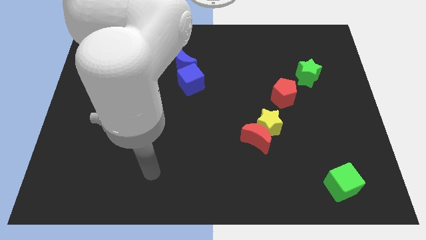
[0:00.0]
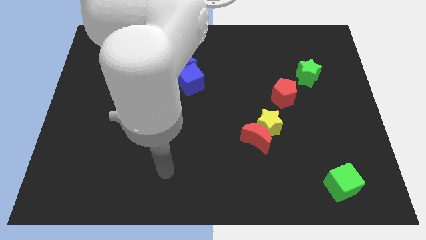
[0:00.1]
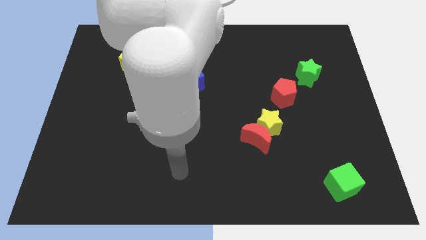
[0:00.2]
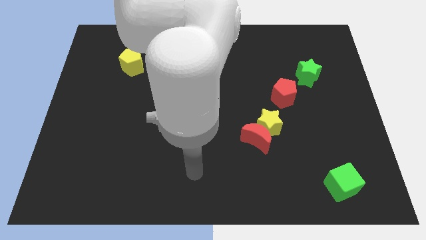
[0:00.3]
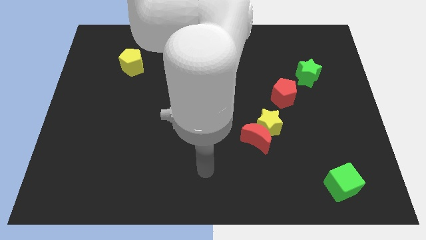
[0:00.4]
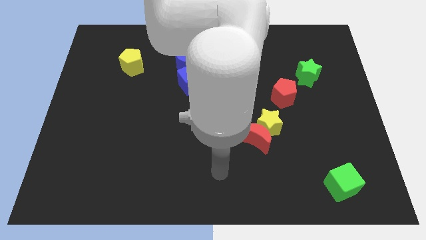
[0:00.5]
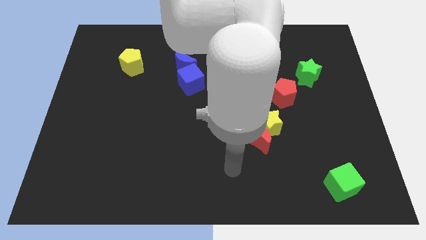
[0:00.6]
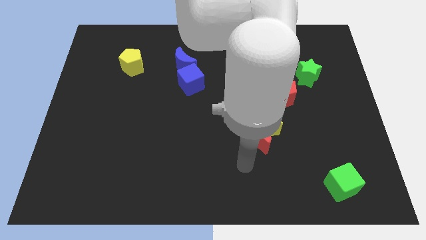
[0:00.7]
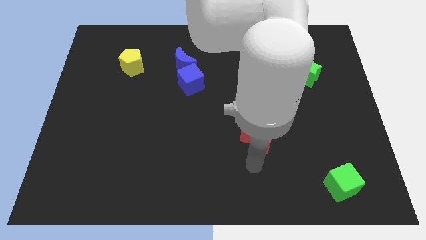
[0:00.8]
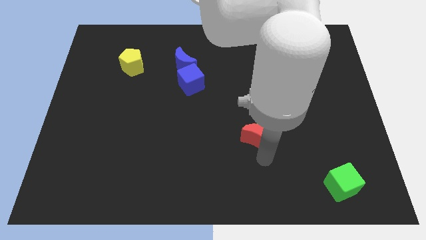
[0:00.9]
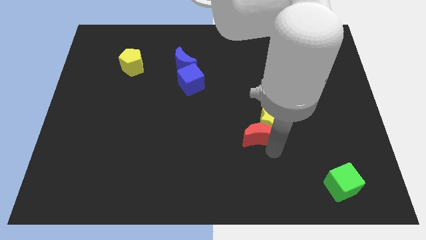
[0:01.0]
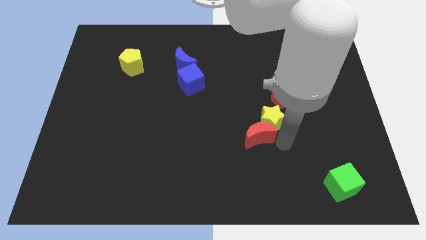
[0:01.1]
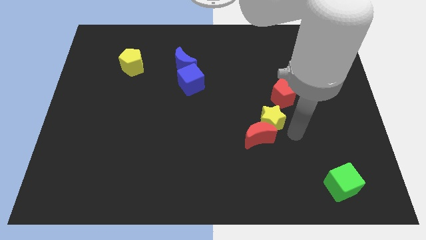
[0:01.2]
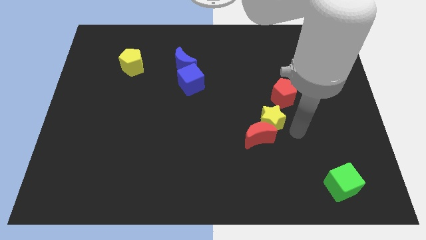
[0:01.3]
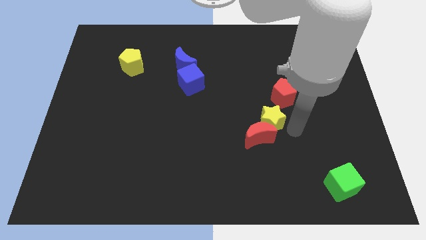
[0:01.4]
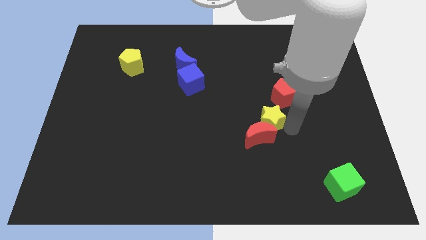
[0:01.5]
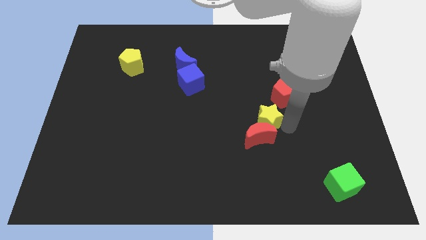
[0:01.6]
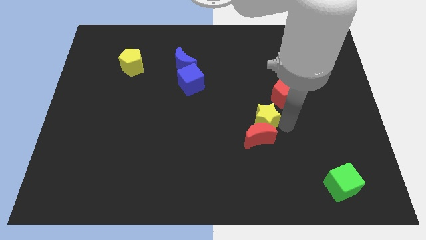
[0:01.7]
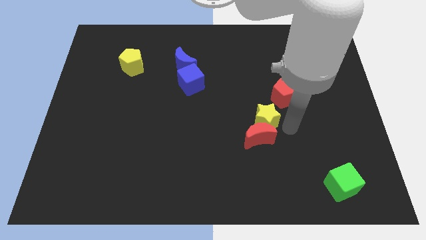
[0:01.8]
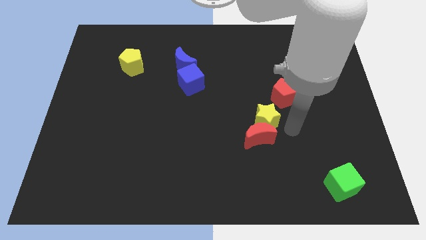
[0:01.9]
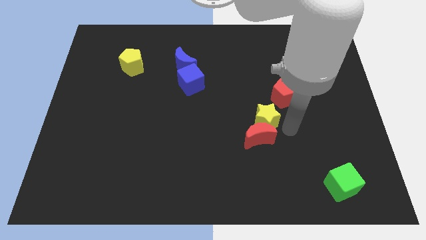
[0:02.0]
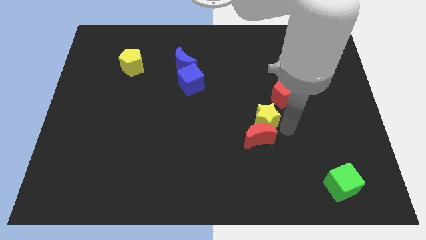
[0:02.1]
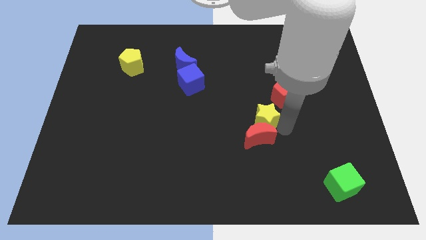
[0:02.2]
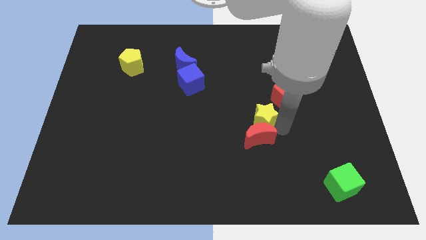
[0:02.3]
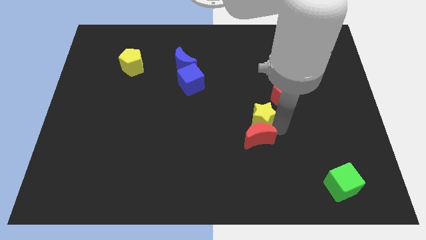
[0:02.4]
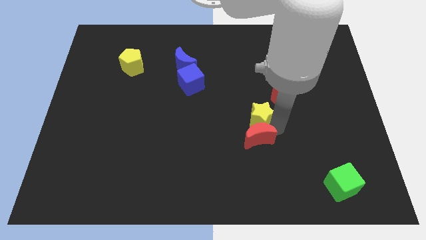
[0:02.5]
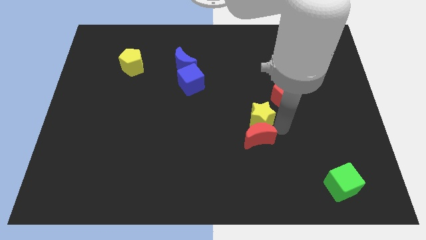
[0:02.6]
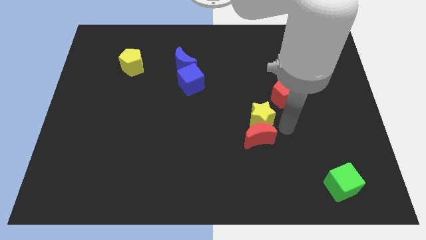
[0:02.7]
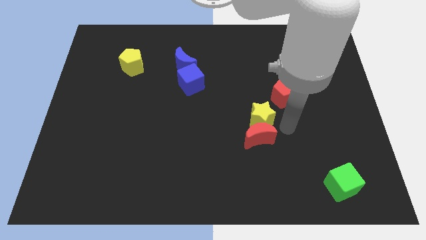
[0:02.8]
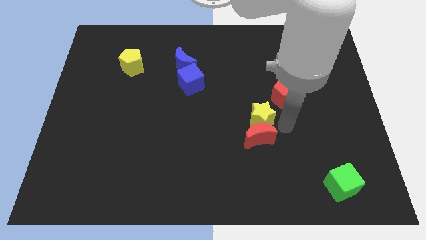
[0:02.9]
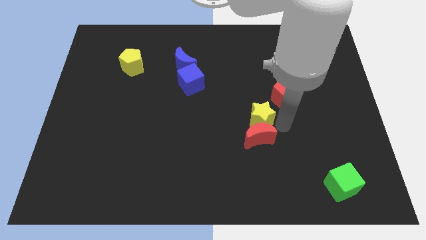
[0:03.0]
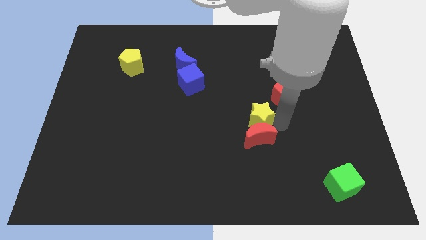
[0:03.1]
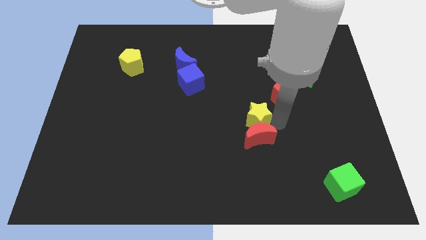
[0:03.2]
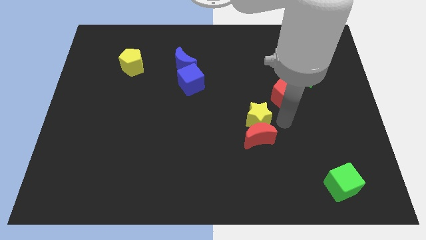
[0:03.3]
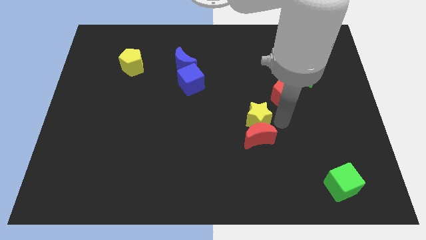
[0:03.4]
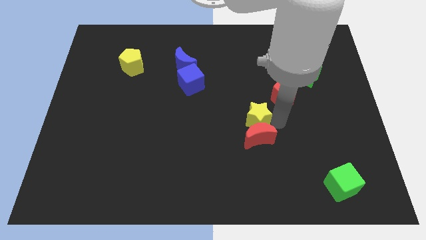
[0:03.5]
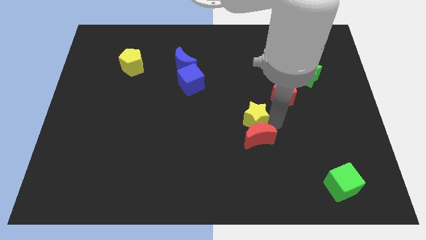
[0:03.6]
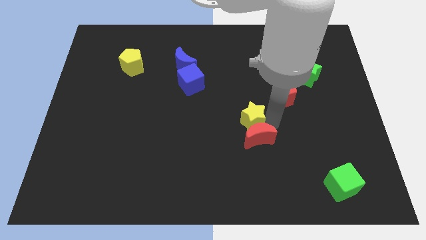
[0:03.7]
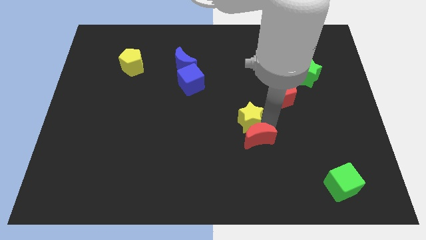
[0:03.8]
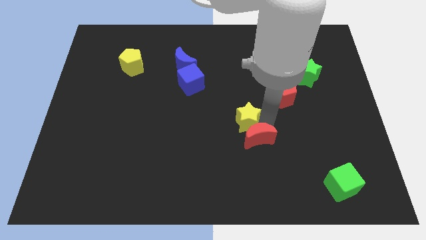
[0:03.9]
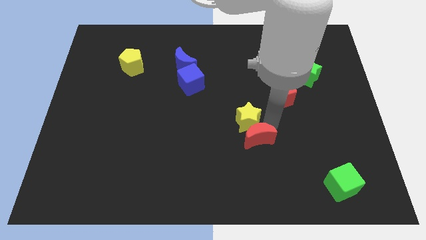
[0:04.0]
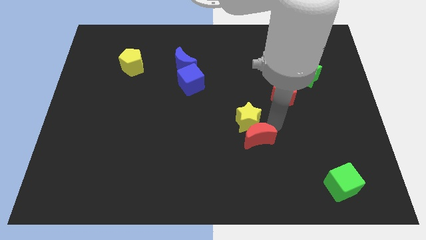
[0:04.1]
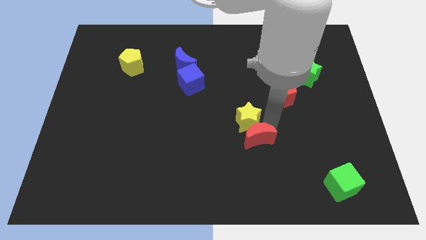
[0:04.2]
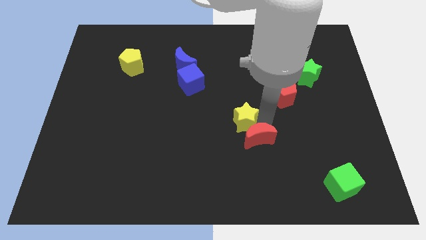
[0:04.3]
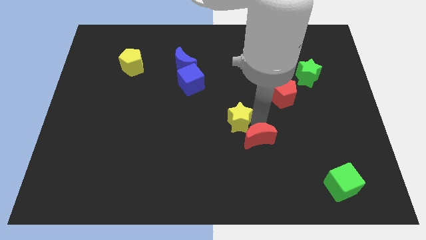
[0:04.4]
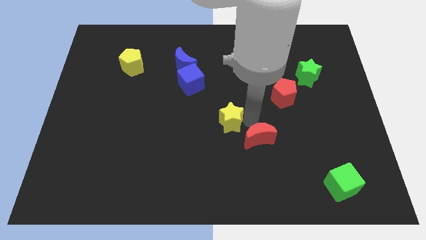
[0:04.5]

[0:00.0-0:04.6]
push the yellow star left a bit

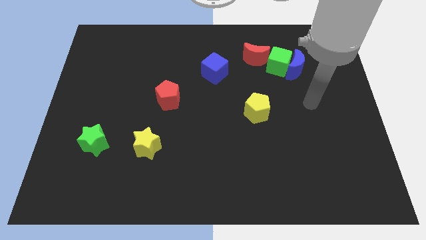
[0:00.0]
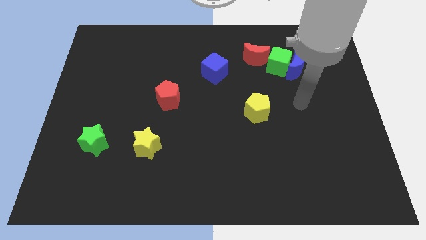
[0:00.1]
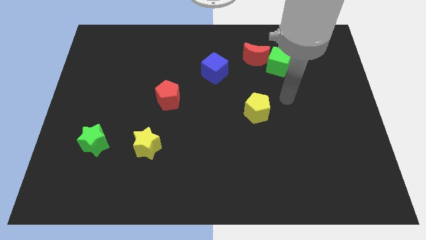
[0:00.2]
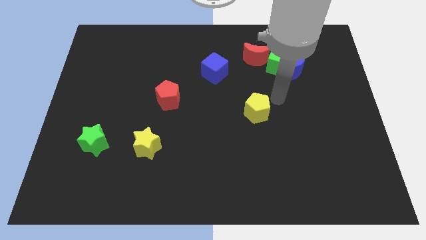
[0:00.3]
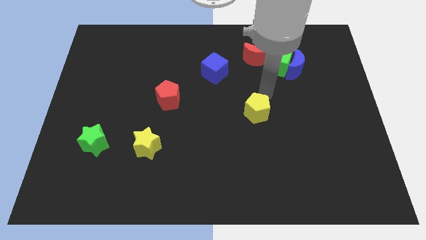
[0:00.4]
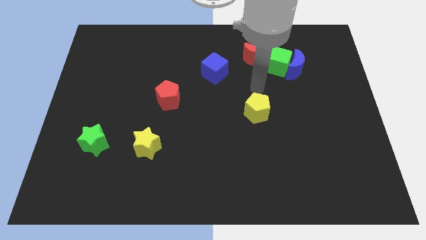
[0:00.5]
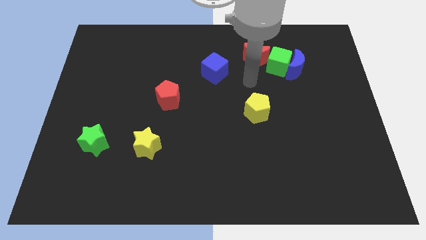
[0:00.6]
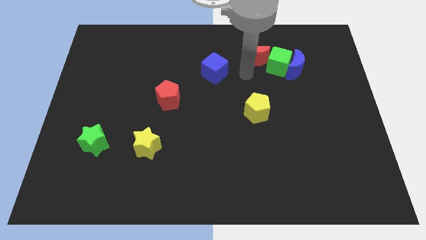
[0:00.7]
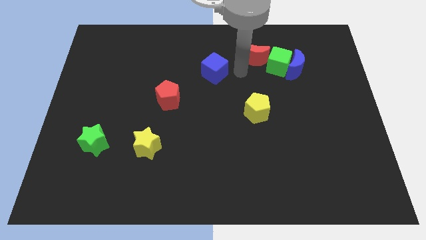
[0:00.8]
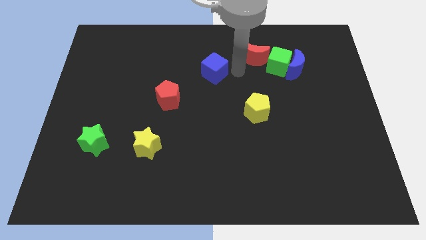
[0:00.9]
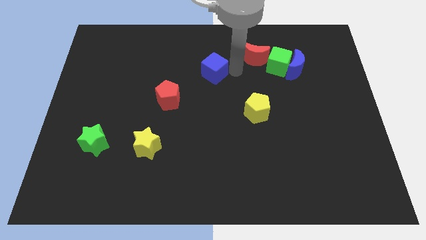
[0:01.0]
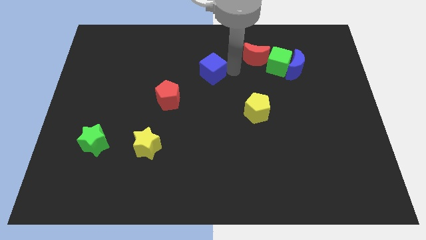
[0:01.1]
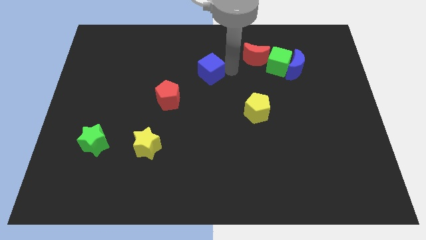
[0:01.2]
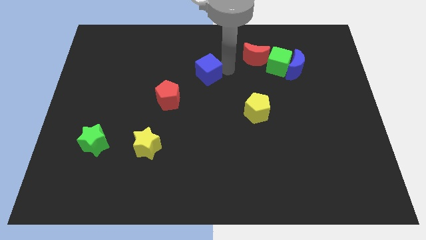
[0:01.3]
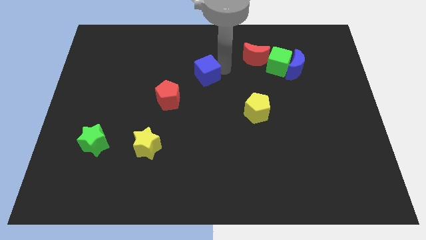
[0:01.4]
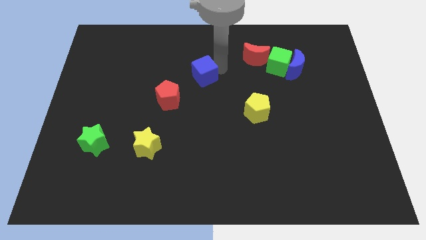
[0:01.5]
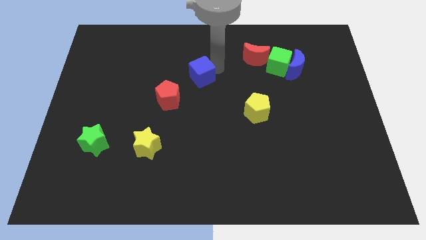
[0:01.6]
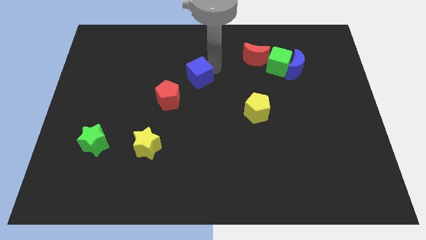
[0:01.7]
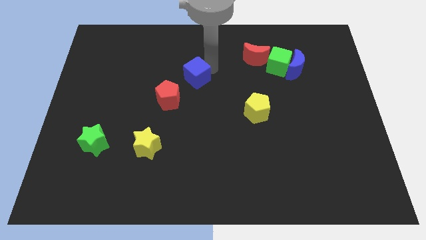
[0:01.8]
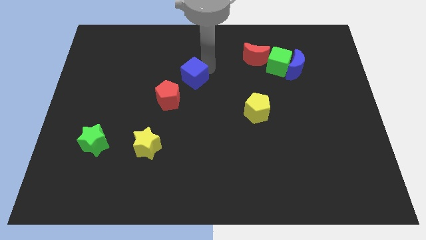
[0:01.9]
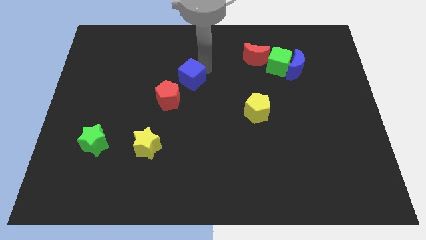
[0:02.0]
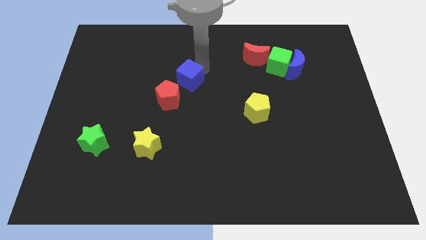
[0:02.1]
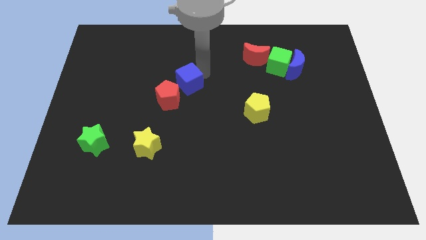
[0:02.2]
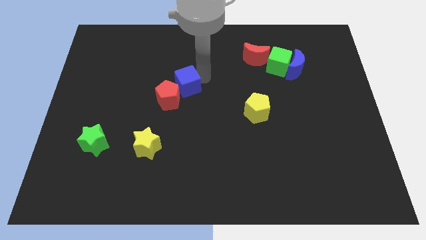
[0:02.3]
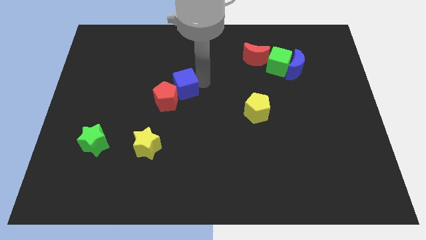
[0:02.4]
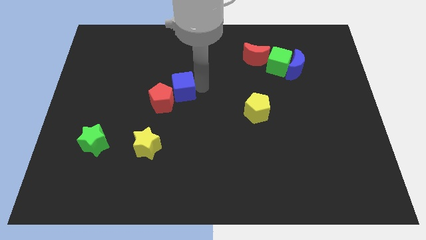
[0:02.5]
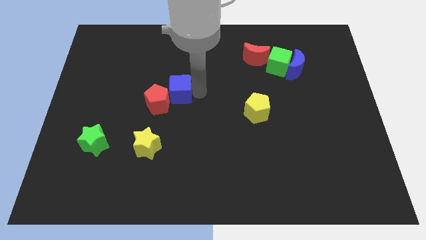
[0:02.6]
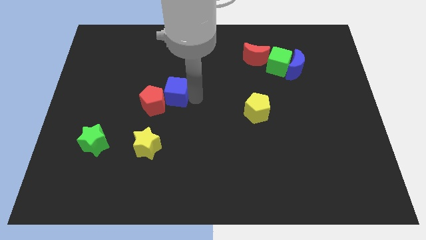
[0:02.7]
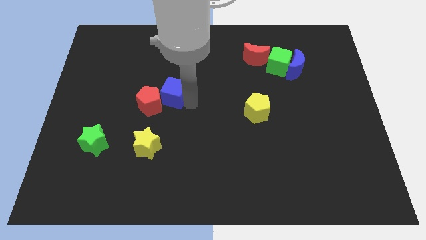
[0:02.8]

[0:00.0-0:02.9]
slide the blue cube slightly left

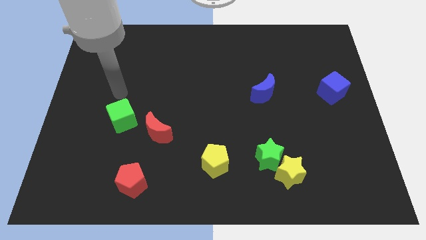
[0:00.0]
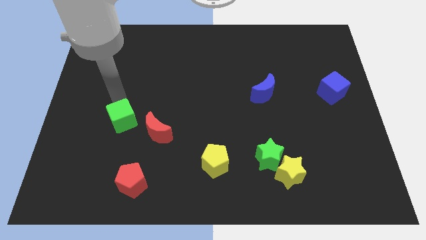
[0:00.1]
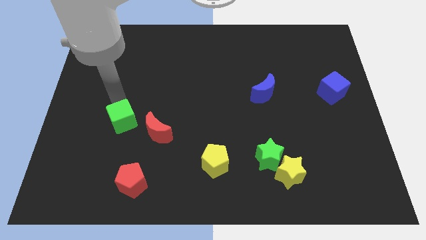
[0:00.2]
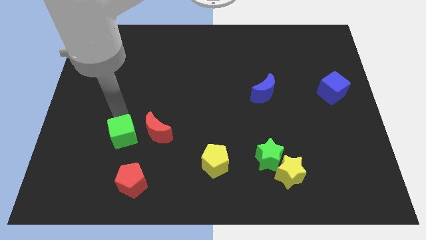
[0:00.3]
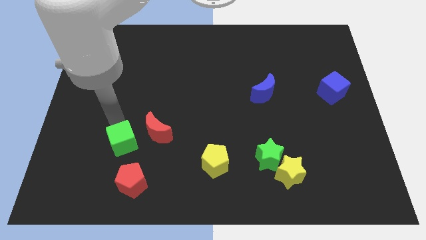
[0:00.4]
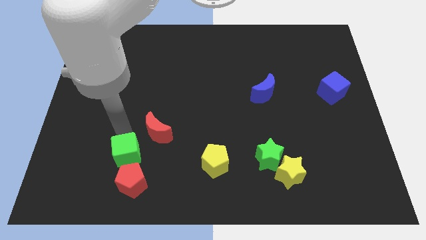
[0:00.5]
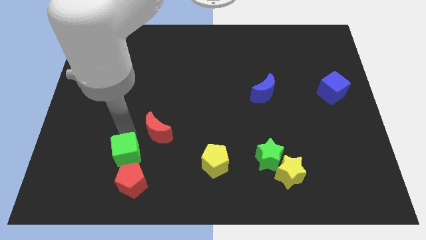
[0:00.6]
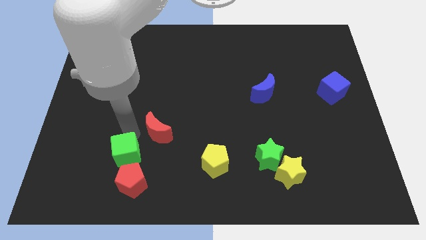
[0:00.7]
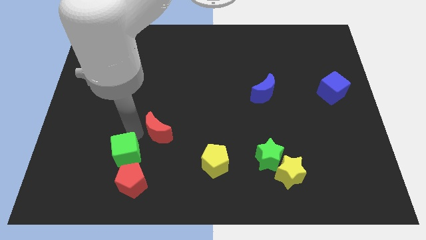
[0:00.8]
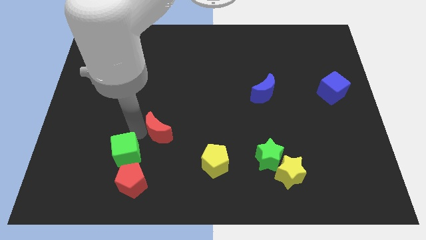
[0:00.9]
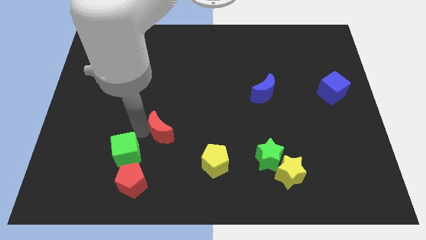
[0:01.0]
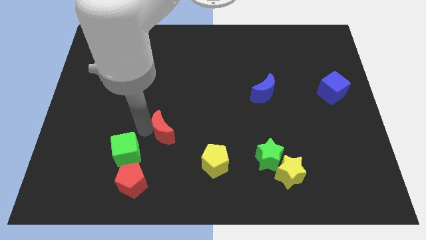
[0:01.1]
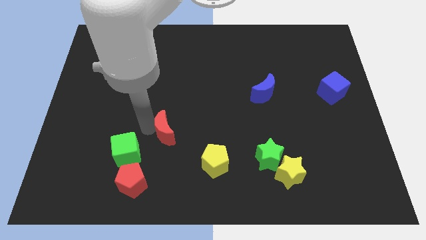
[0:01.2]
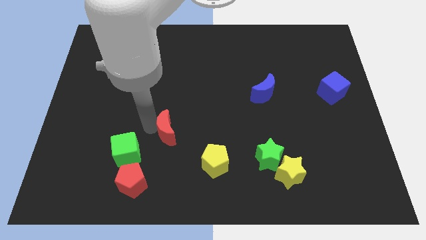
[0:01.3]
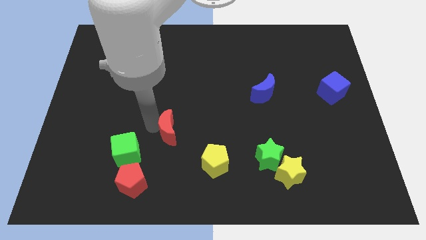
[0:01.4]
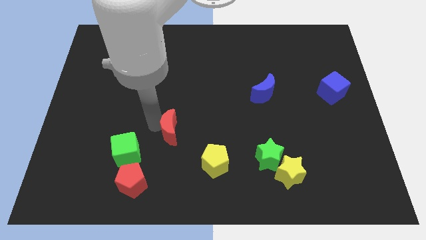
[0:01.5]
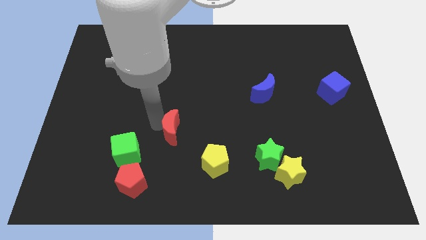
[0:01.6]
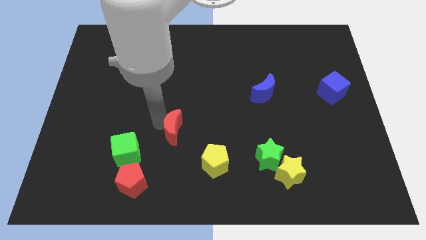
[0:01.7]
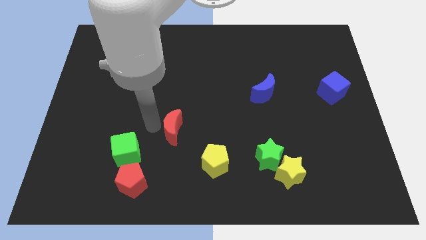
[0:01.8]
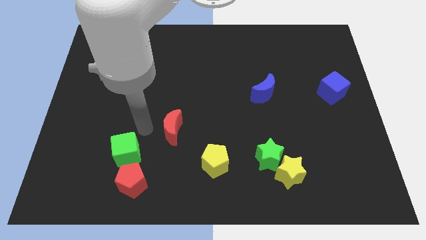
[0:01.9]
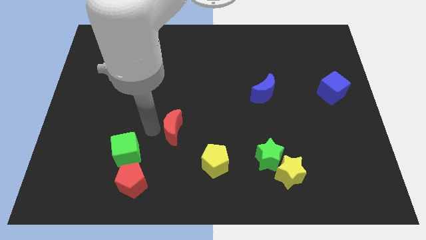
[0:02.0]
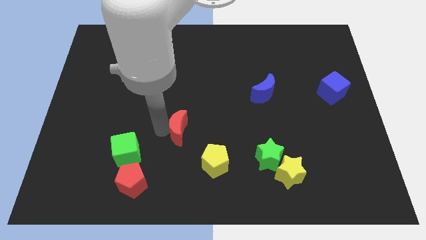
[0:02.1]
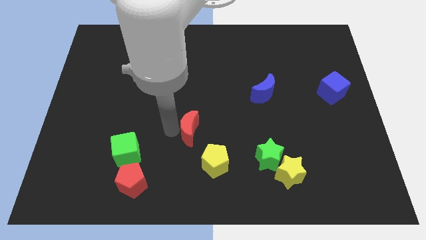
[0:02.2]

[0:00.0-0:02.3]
slide the red moon slightly to the right
